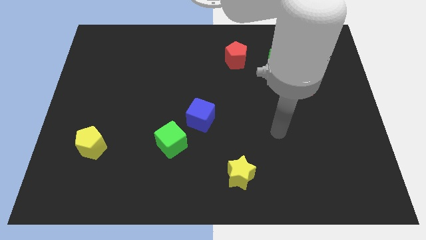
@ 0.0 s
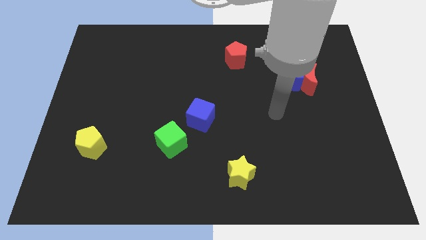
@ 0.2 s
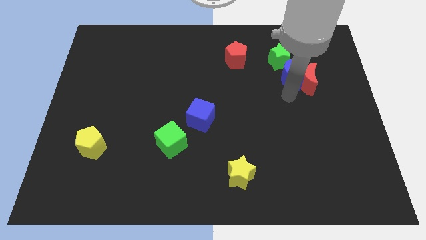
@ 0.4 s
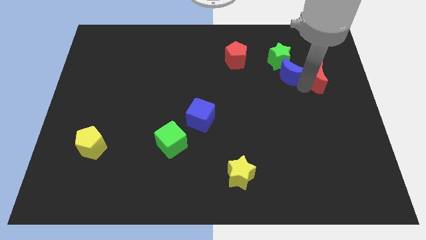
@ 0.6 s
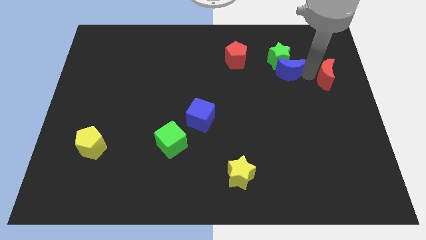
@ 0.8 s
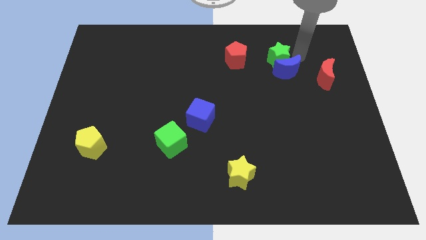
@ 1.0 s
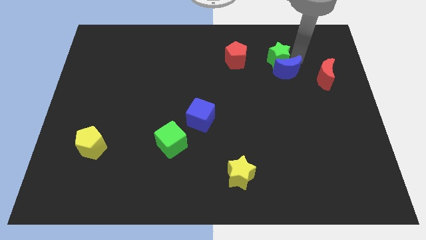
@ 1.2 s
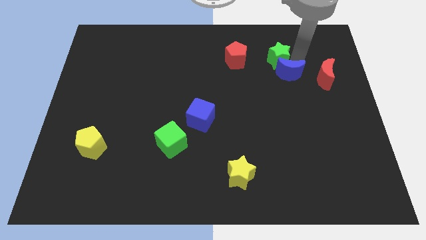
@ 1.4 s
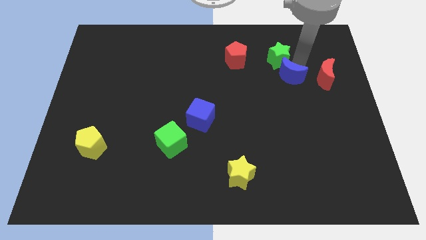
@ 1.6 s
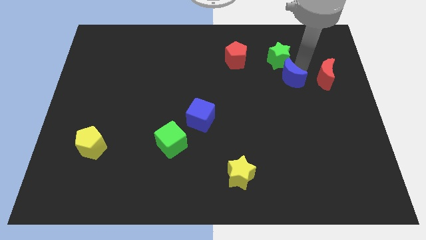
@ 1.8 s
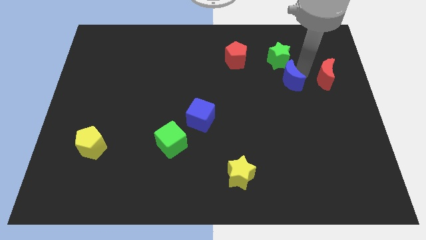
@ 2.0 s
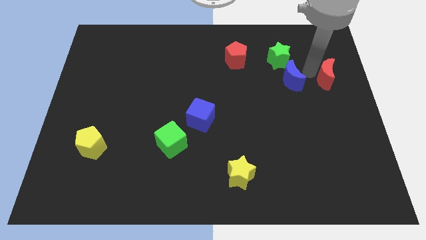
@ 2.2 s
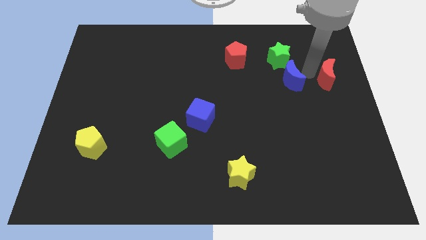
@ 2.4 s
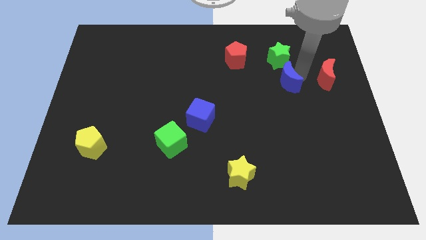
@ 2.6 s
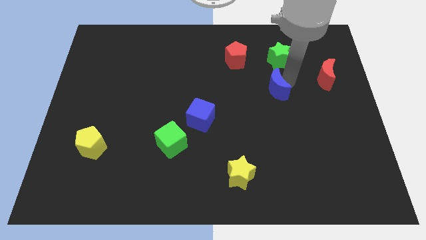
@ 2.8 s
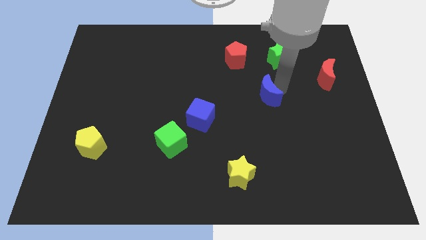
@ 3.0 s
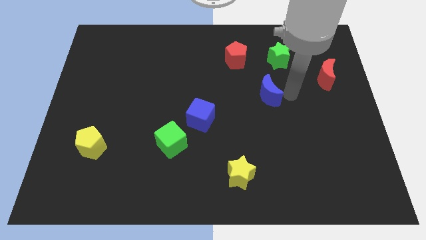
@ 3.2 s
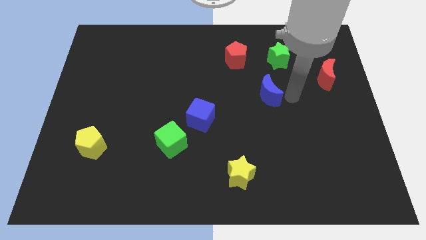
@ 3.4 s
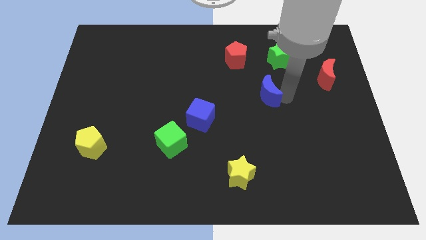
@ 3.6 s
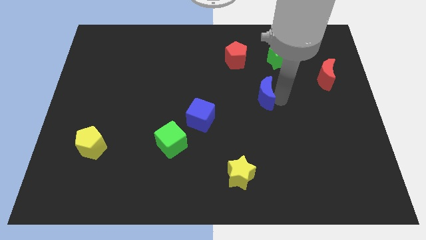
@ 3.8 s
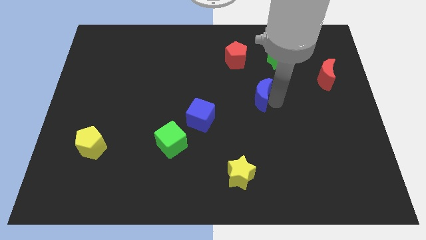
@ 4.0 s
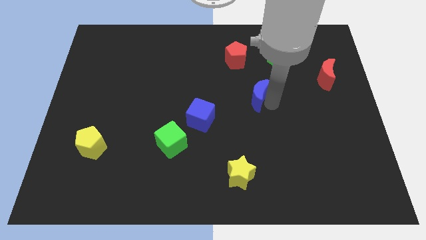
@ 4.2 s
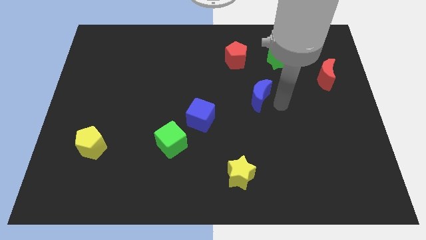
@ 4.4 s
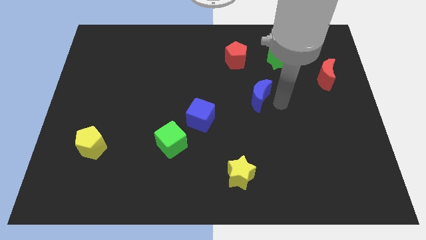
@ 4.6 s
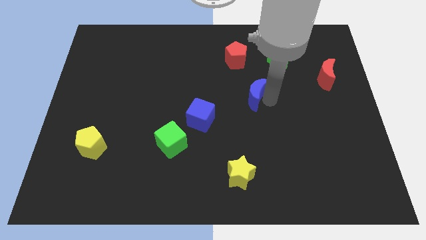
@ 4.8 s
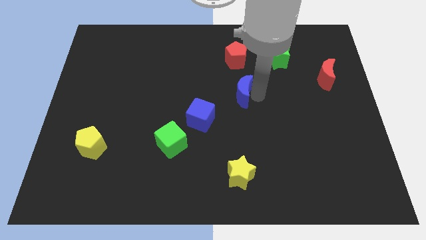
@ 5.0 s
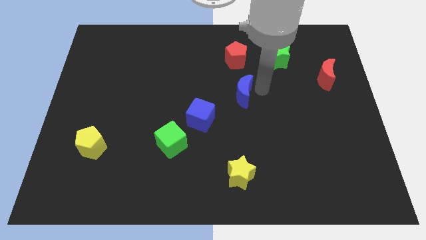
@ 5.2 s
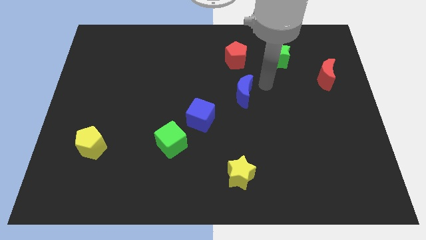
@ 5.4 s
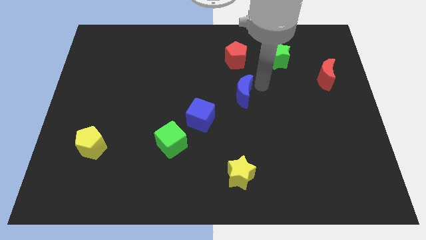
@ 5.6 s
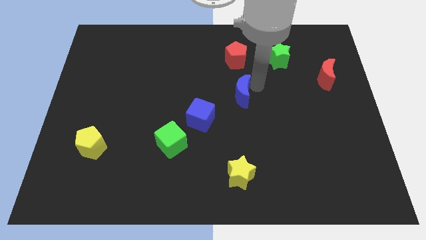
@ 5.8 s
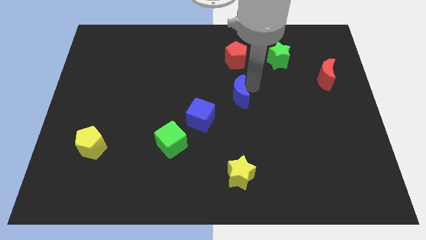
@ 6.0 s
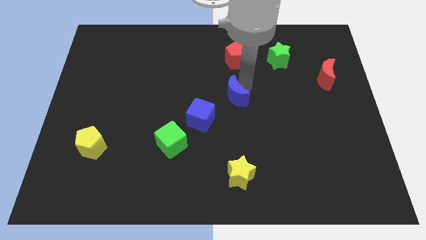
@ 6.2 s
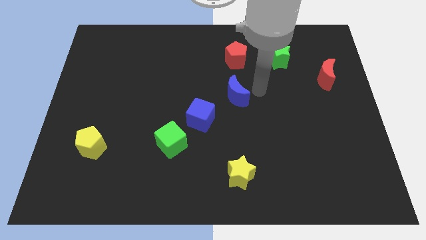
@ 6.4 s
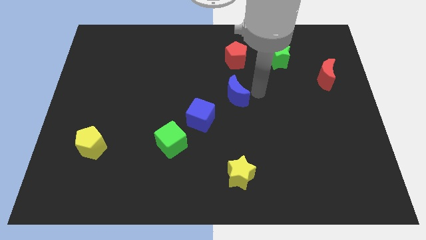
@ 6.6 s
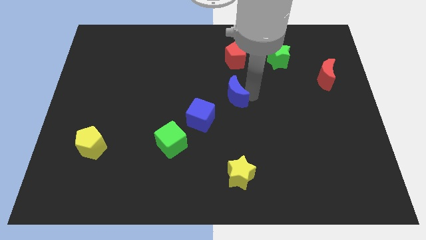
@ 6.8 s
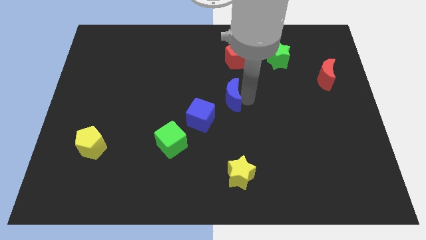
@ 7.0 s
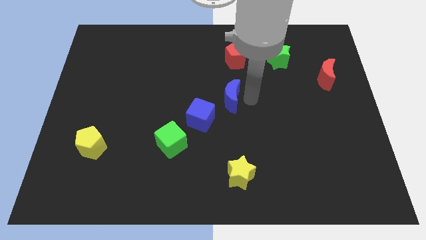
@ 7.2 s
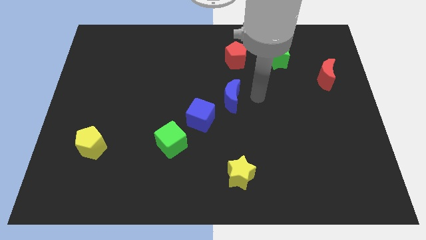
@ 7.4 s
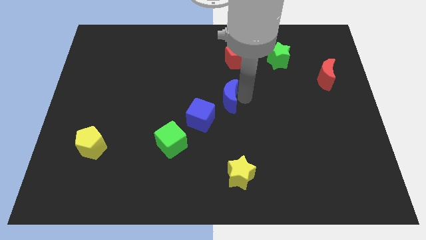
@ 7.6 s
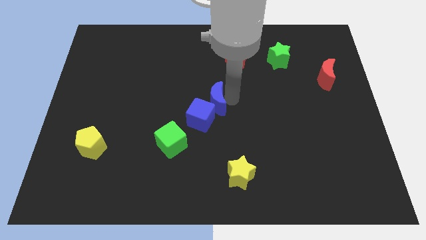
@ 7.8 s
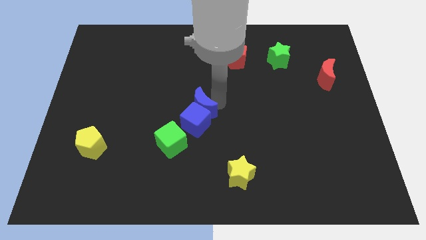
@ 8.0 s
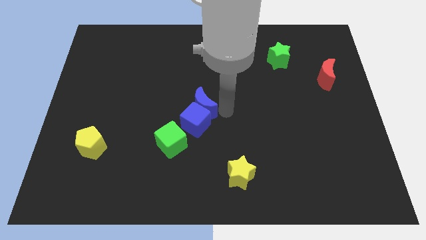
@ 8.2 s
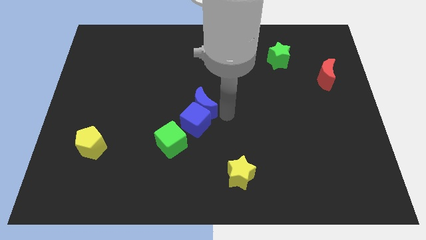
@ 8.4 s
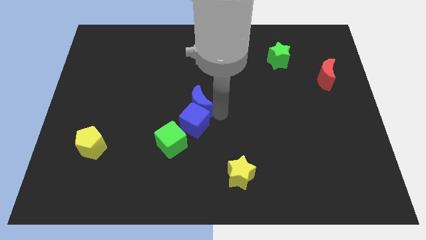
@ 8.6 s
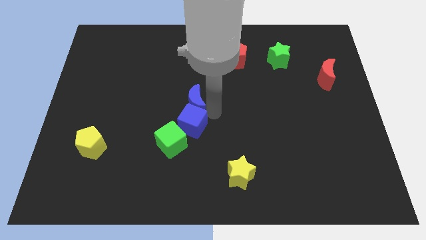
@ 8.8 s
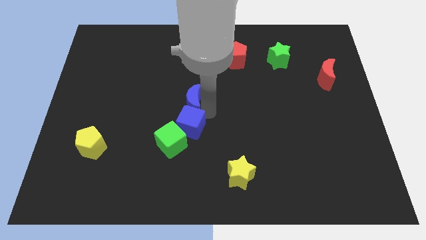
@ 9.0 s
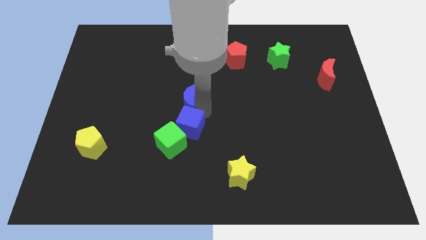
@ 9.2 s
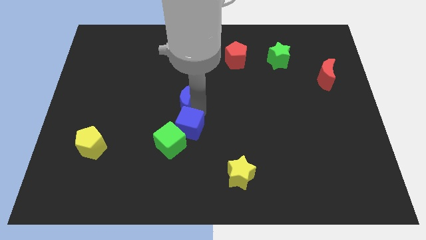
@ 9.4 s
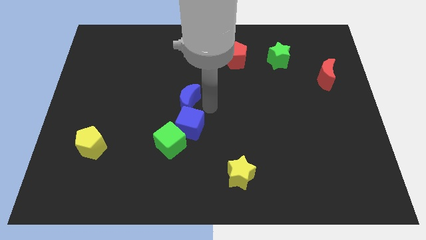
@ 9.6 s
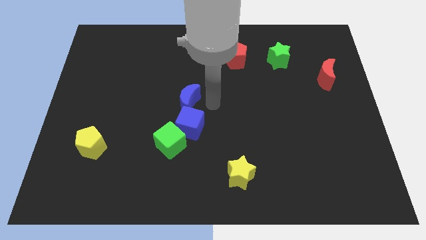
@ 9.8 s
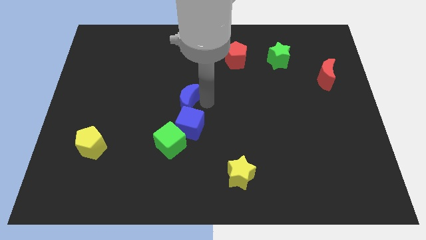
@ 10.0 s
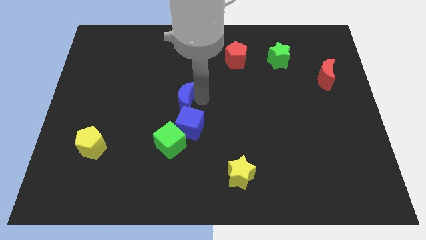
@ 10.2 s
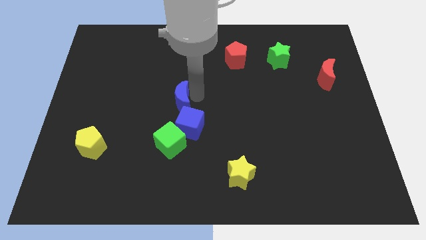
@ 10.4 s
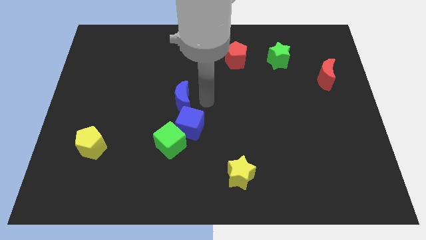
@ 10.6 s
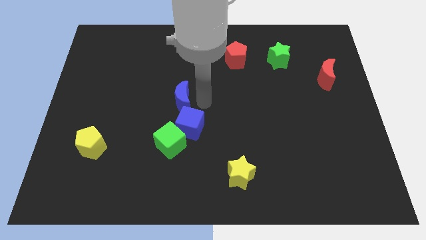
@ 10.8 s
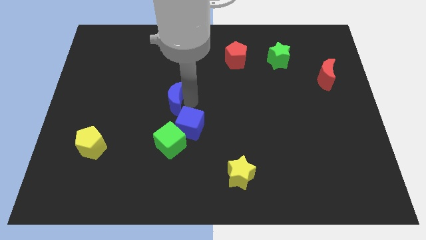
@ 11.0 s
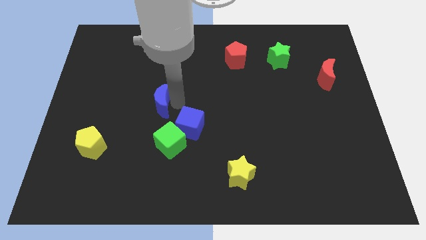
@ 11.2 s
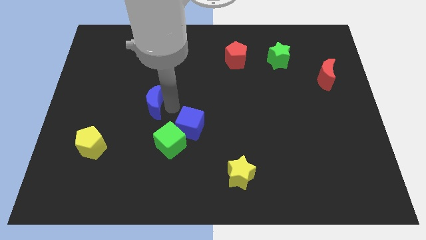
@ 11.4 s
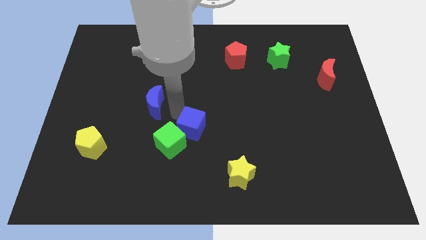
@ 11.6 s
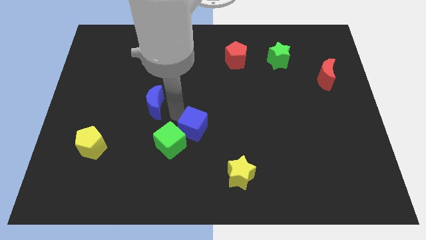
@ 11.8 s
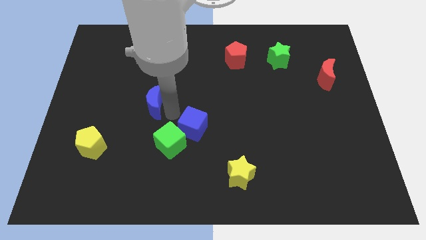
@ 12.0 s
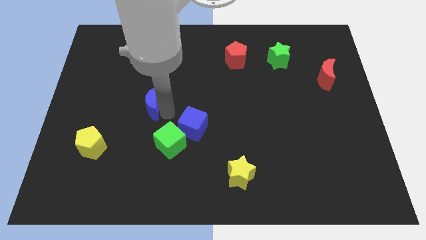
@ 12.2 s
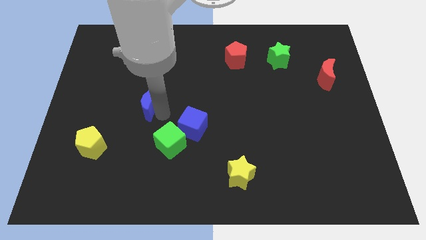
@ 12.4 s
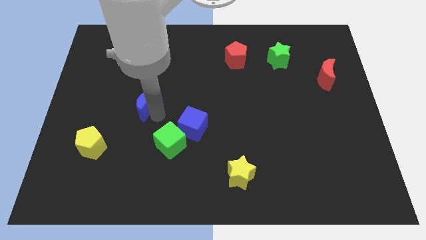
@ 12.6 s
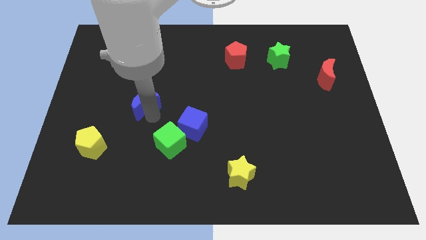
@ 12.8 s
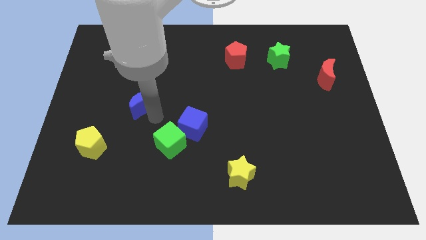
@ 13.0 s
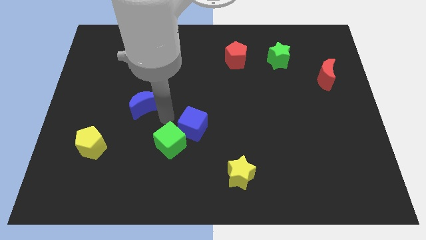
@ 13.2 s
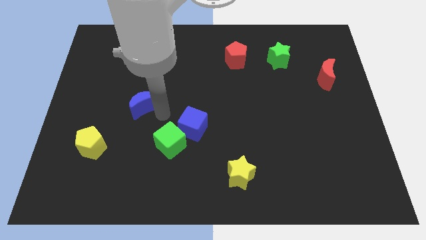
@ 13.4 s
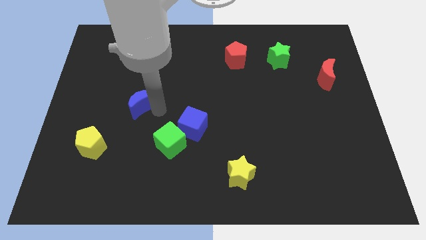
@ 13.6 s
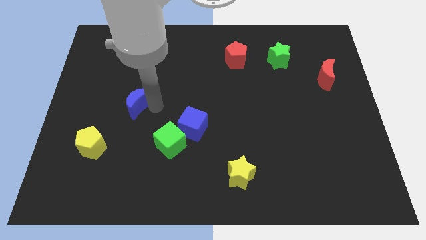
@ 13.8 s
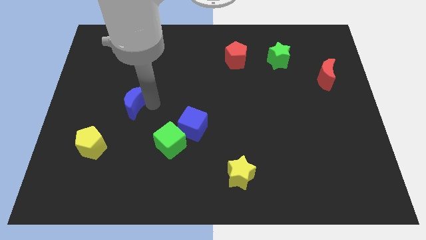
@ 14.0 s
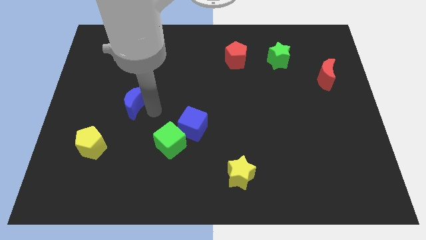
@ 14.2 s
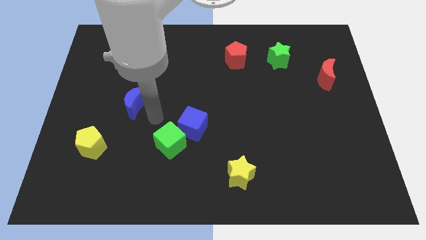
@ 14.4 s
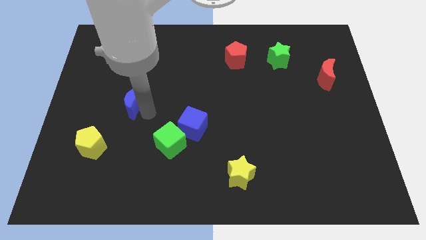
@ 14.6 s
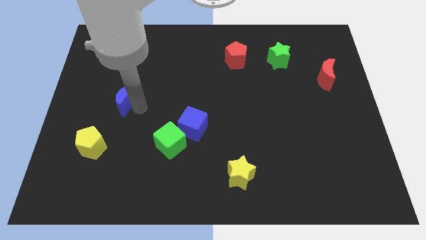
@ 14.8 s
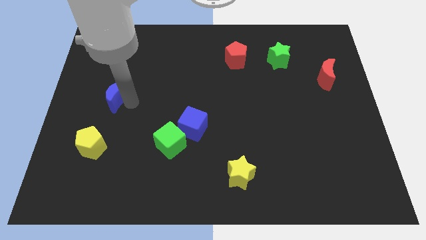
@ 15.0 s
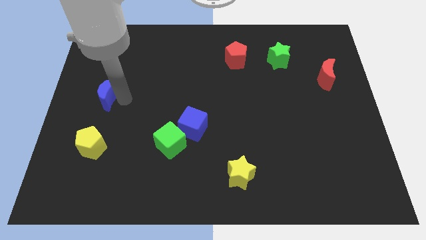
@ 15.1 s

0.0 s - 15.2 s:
push the blue moon to the left side
